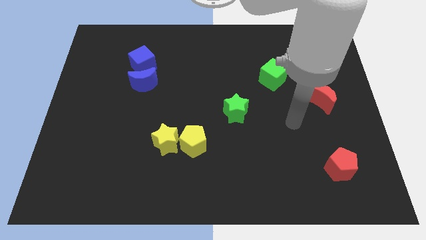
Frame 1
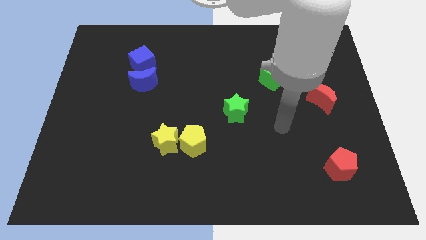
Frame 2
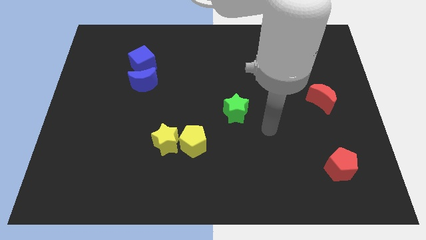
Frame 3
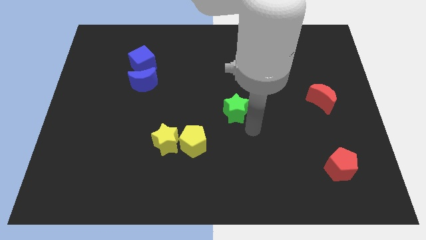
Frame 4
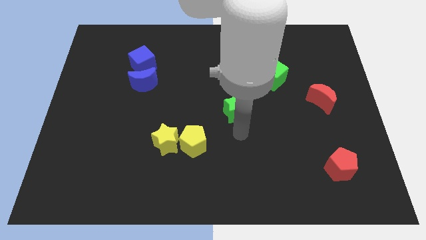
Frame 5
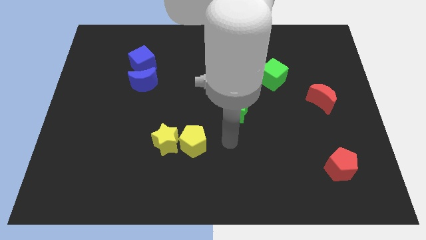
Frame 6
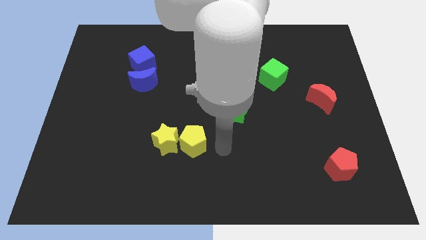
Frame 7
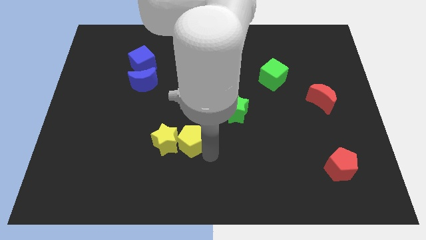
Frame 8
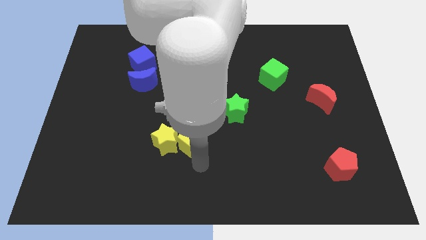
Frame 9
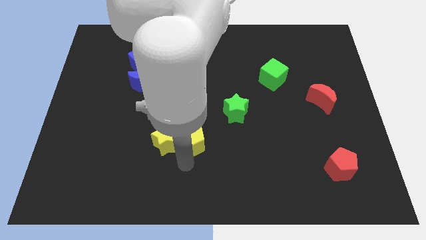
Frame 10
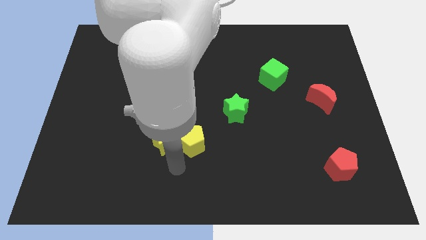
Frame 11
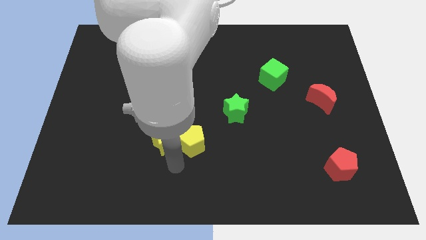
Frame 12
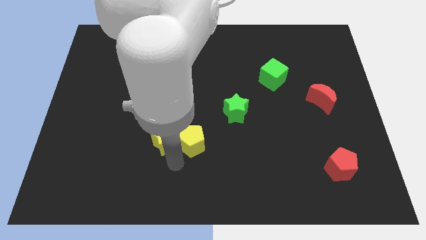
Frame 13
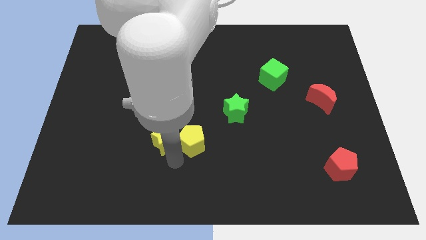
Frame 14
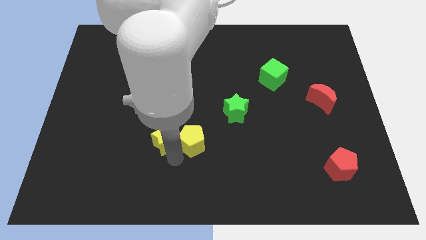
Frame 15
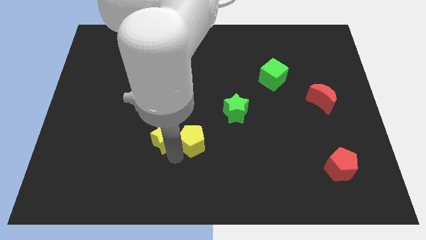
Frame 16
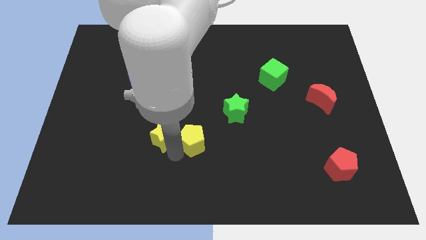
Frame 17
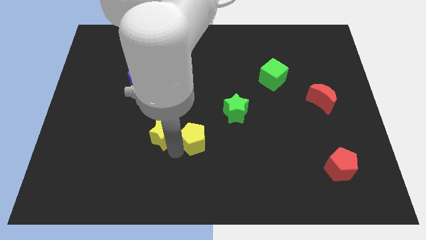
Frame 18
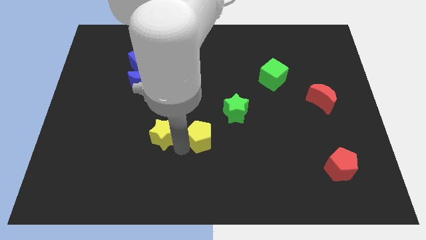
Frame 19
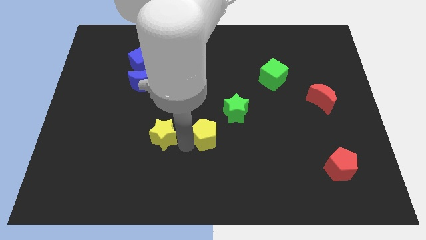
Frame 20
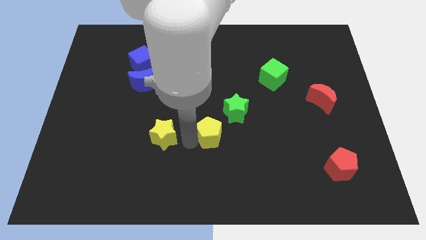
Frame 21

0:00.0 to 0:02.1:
move the yellow star away from the yellow pentagon

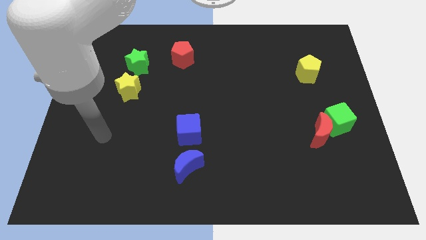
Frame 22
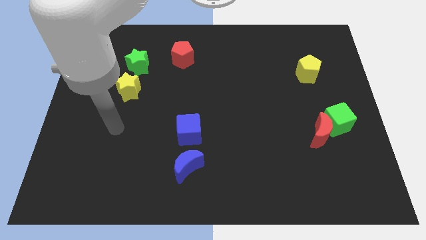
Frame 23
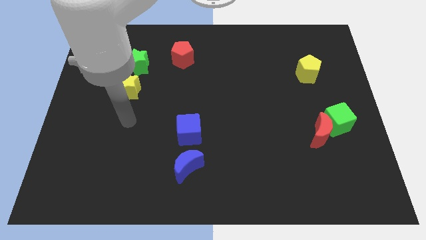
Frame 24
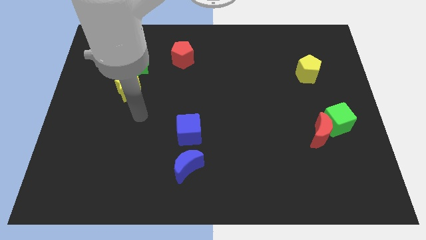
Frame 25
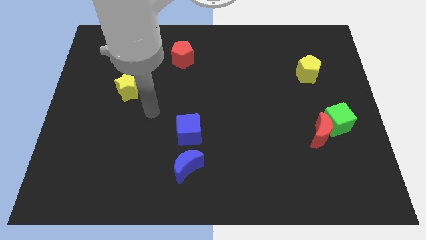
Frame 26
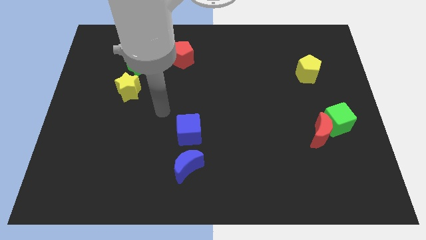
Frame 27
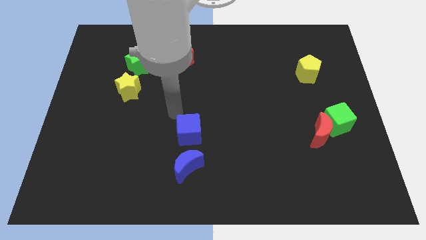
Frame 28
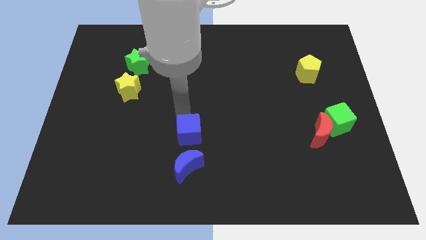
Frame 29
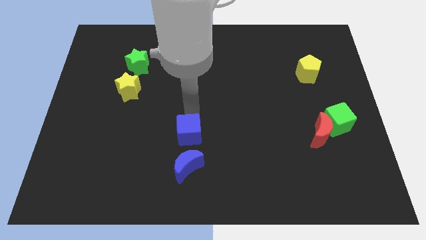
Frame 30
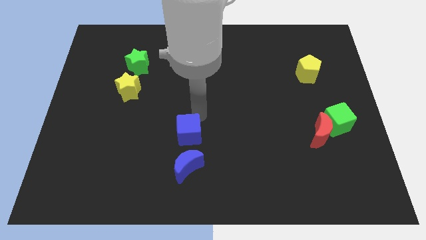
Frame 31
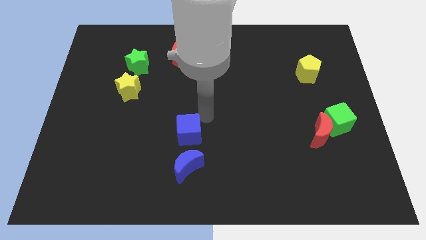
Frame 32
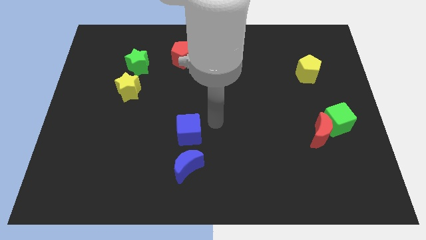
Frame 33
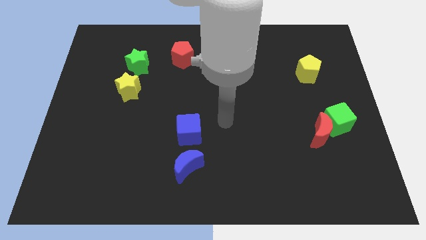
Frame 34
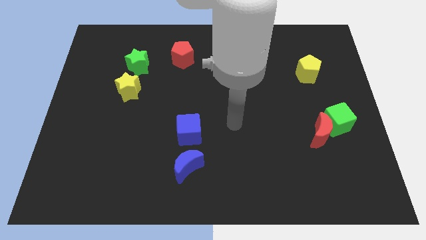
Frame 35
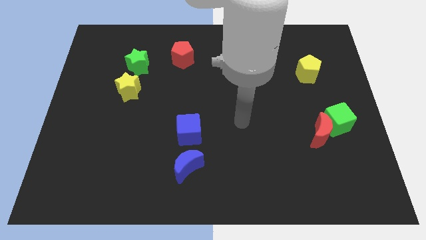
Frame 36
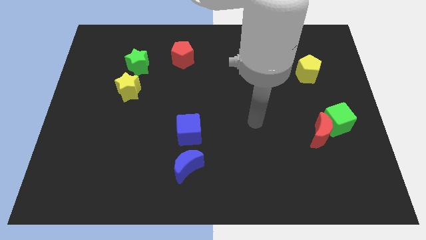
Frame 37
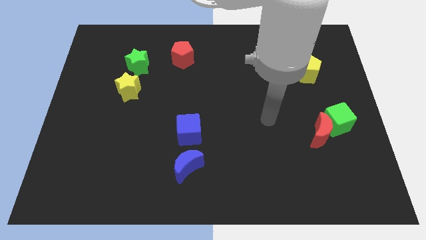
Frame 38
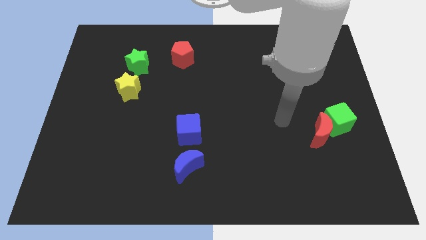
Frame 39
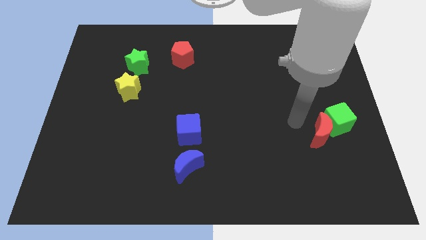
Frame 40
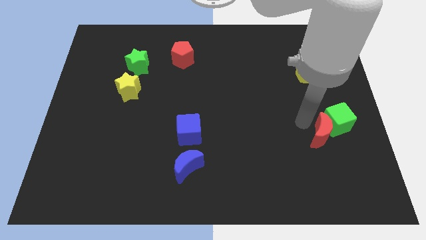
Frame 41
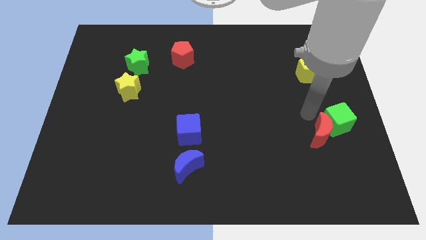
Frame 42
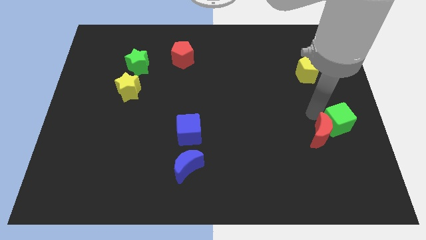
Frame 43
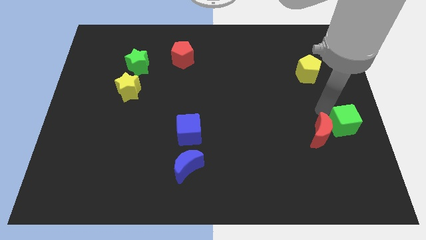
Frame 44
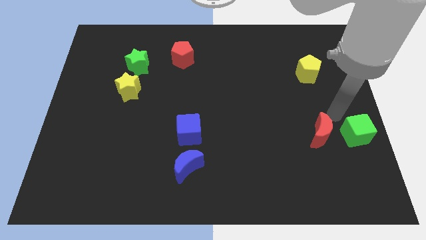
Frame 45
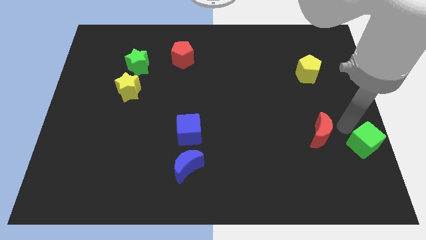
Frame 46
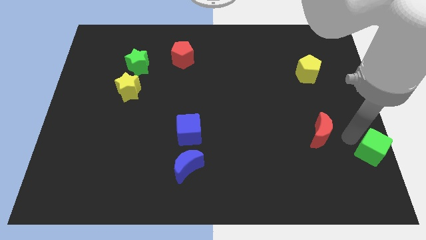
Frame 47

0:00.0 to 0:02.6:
move the red moon away from the green cube

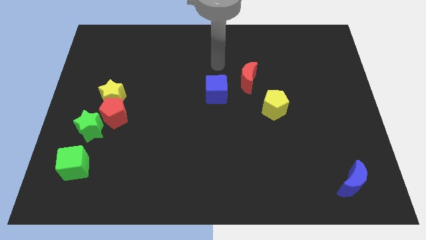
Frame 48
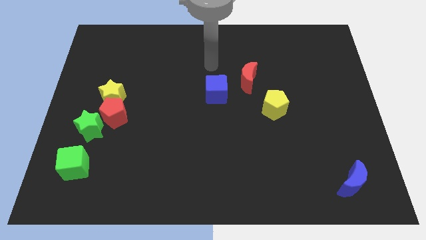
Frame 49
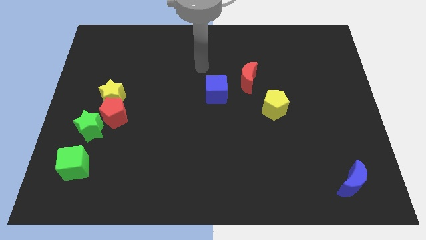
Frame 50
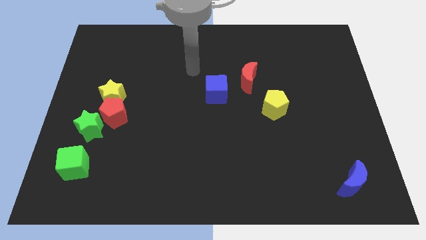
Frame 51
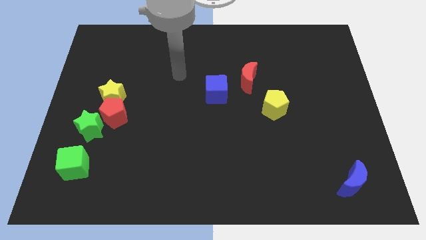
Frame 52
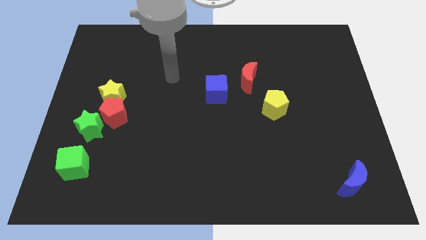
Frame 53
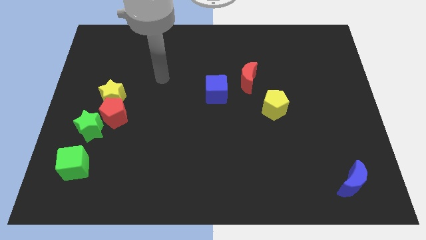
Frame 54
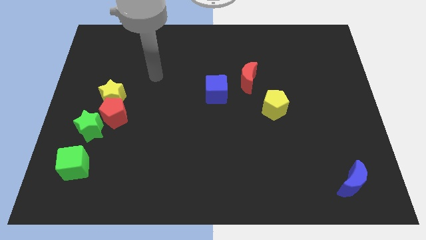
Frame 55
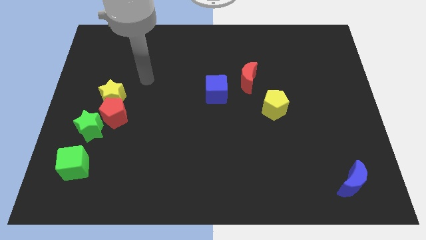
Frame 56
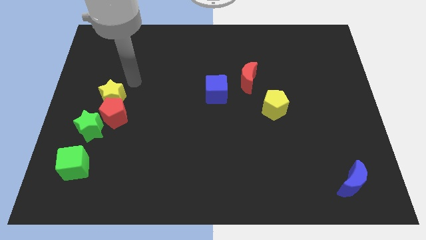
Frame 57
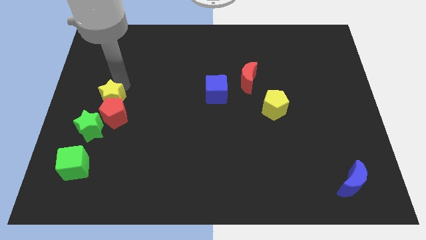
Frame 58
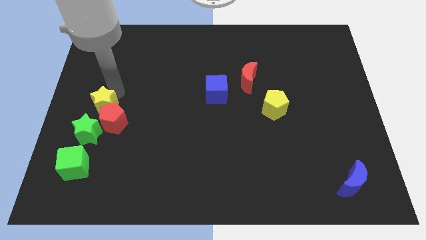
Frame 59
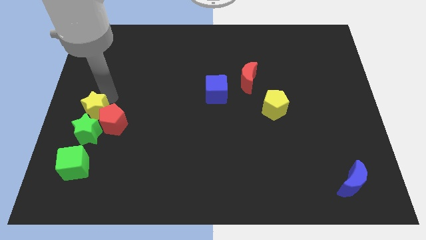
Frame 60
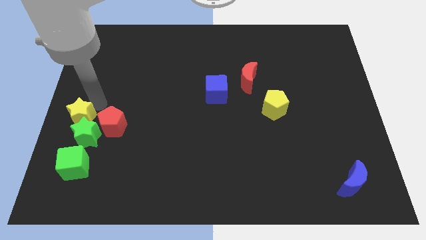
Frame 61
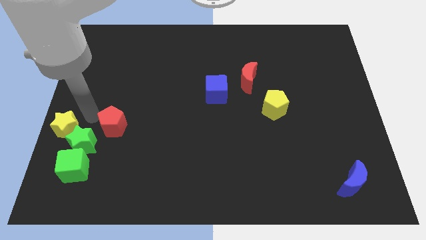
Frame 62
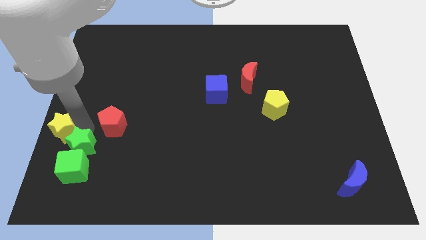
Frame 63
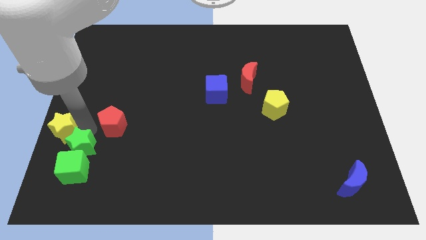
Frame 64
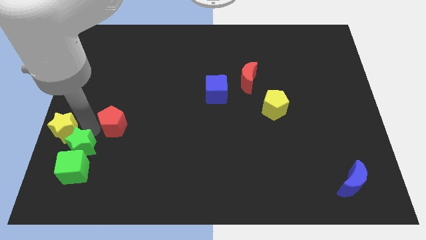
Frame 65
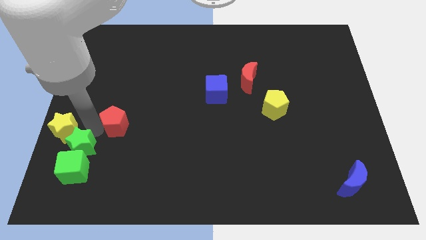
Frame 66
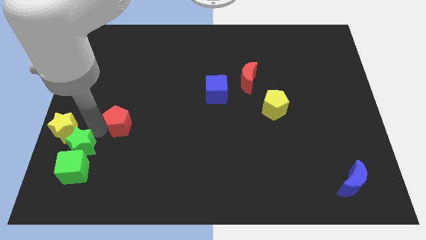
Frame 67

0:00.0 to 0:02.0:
move the red pentagon away from the yellow star and green star

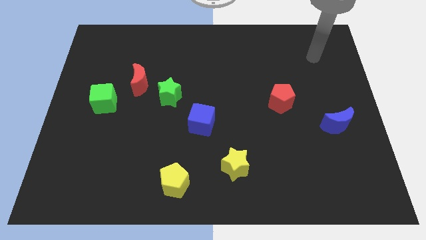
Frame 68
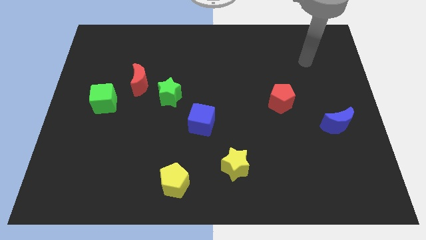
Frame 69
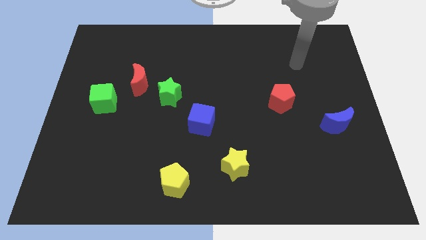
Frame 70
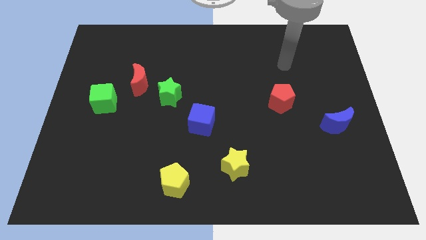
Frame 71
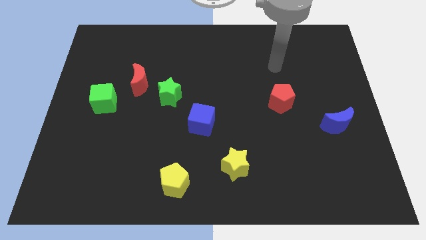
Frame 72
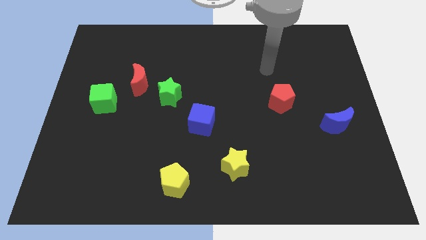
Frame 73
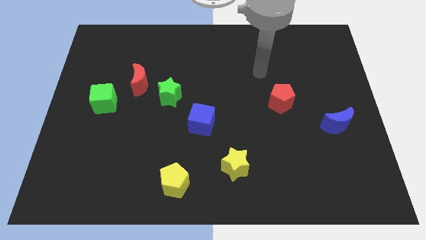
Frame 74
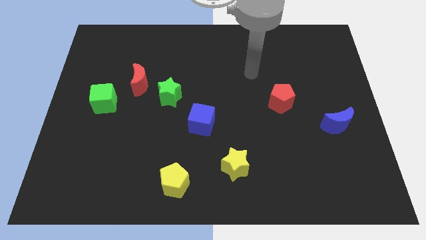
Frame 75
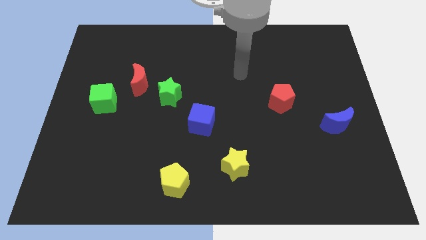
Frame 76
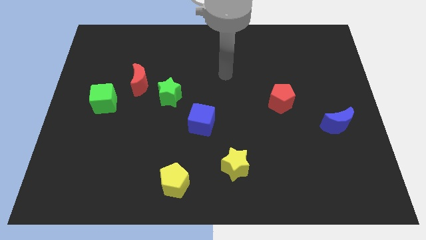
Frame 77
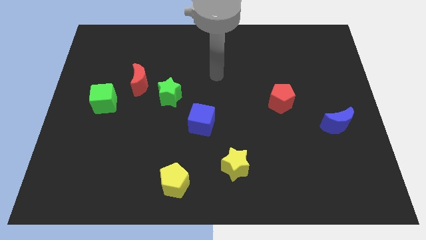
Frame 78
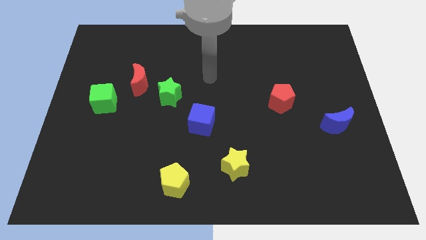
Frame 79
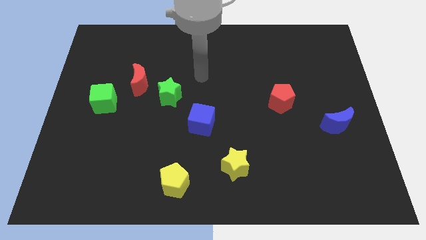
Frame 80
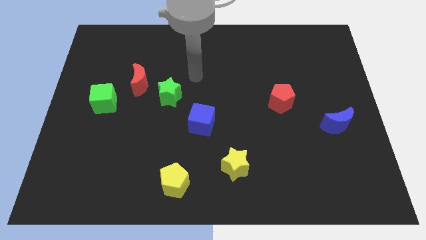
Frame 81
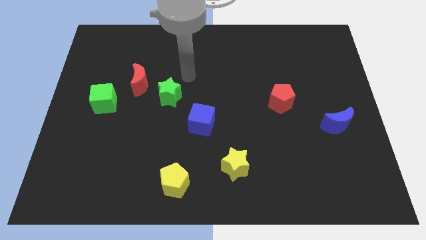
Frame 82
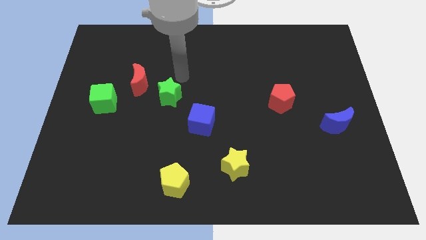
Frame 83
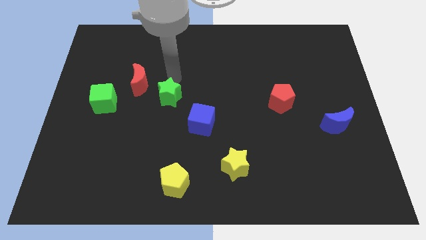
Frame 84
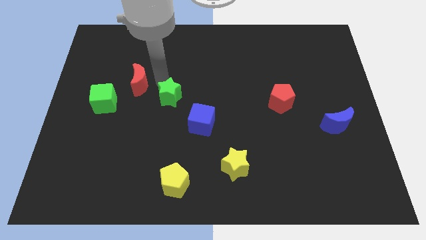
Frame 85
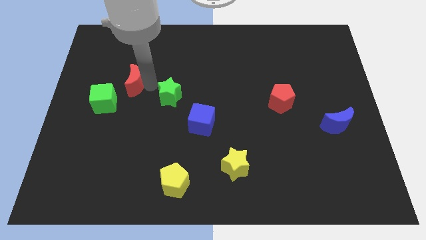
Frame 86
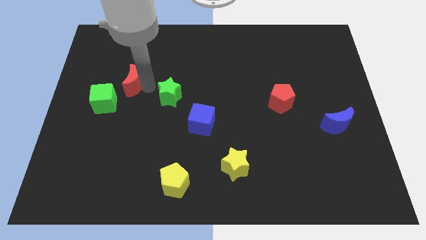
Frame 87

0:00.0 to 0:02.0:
separate the green star from the red moon

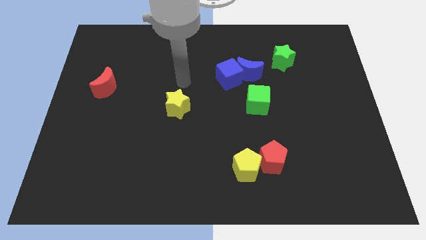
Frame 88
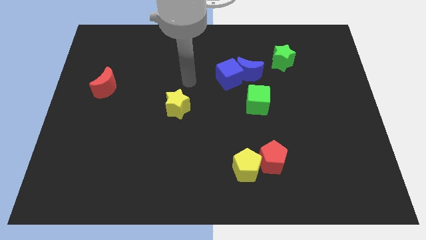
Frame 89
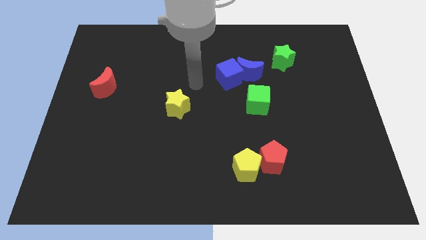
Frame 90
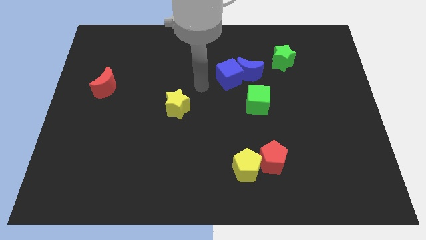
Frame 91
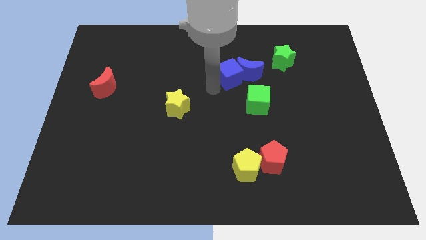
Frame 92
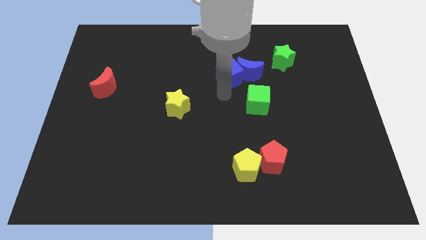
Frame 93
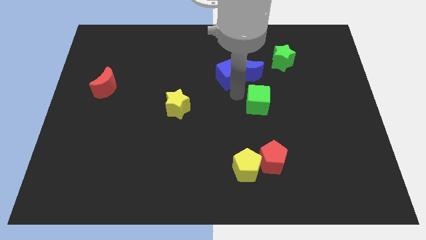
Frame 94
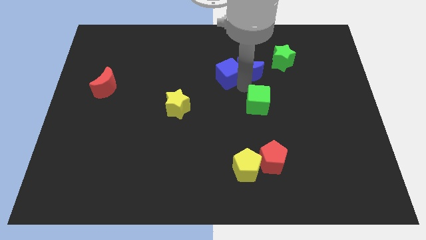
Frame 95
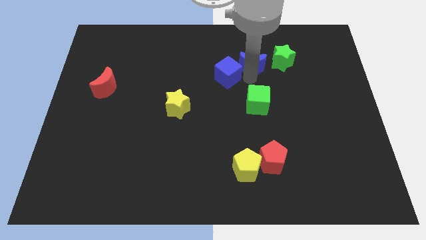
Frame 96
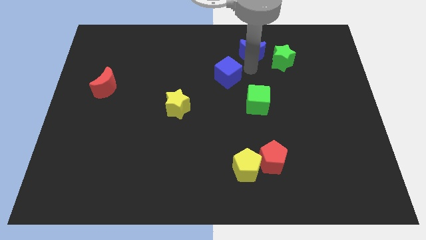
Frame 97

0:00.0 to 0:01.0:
move the blue cube away from the blue moon
